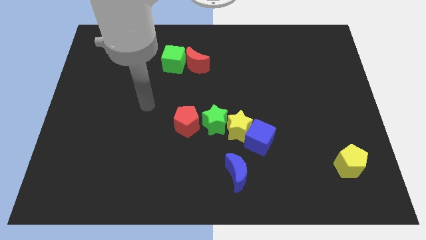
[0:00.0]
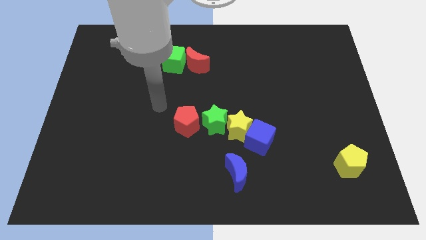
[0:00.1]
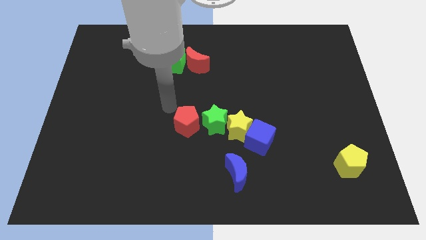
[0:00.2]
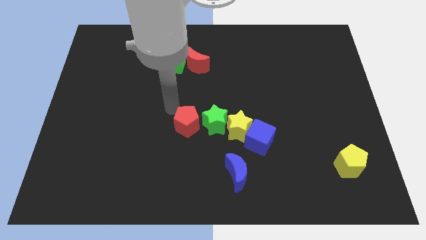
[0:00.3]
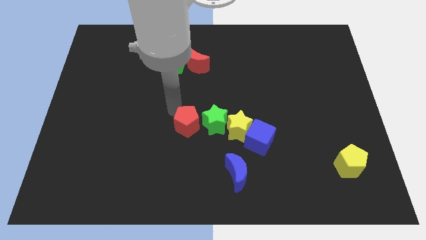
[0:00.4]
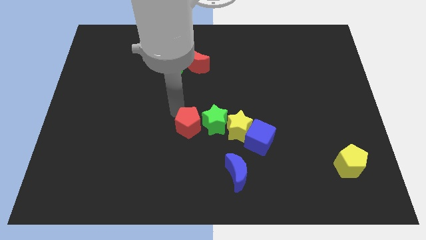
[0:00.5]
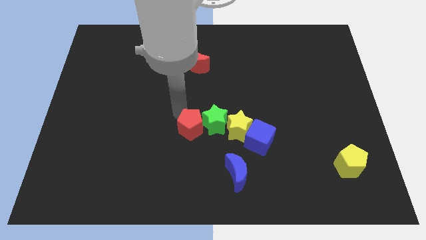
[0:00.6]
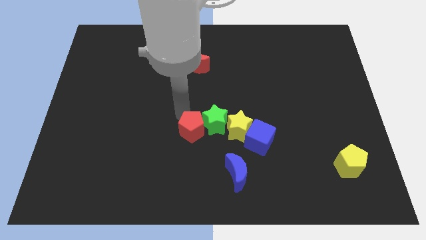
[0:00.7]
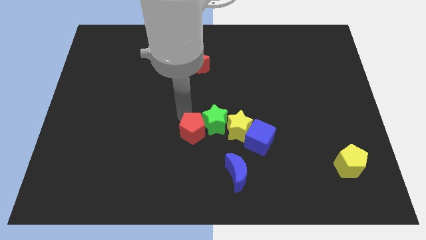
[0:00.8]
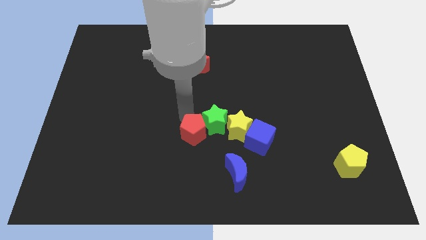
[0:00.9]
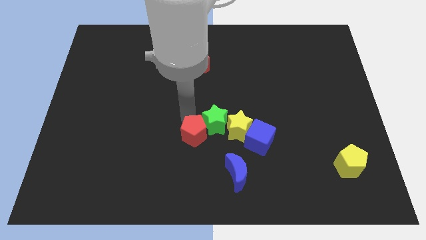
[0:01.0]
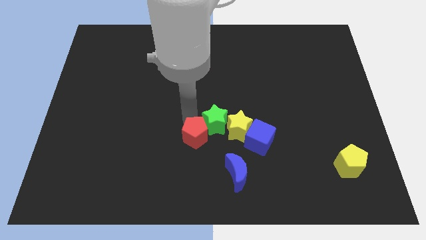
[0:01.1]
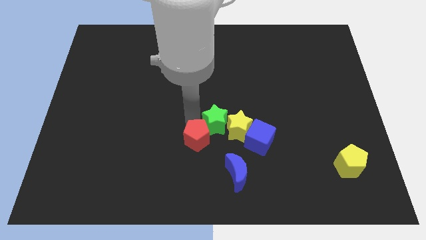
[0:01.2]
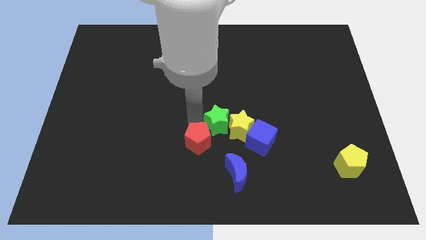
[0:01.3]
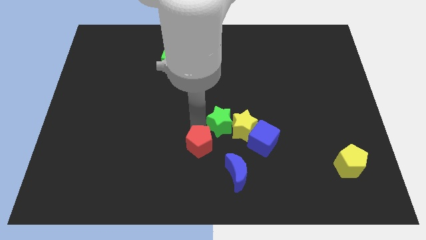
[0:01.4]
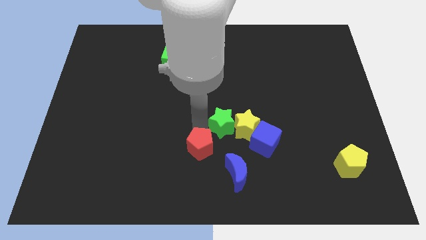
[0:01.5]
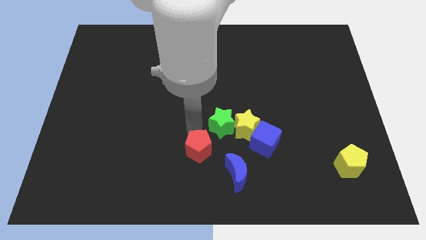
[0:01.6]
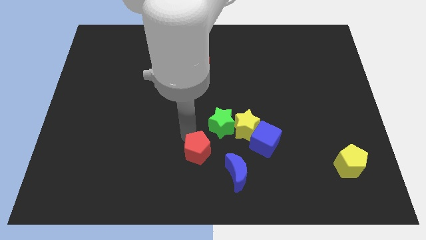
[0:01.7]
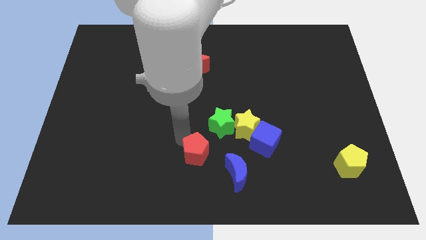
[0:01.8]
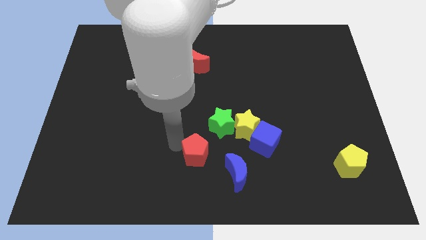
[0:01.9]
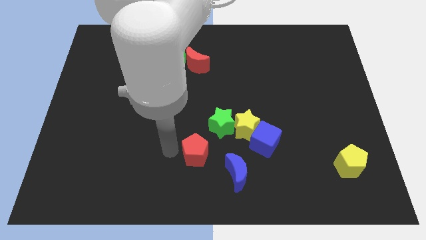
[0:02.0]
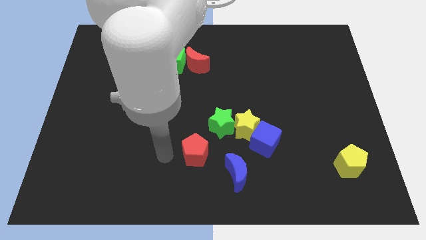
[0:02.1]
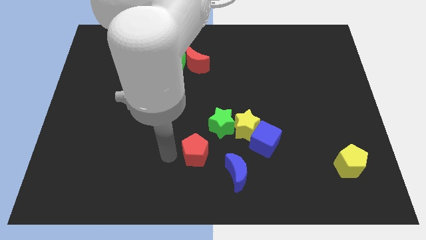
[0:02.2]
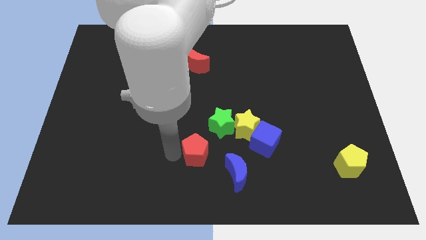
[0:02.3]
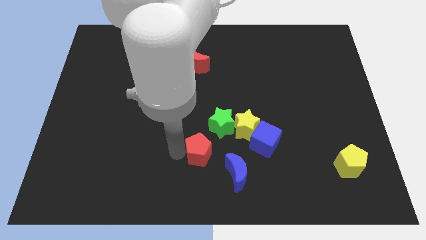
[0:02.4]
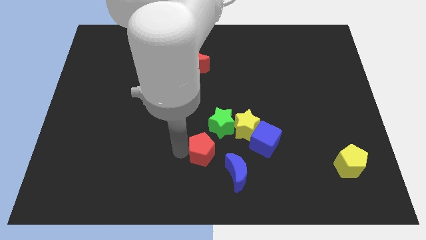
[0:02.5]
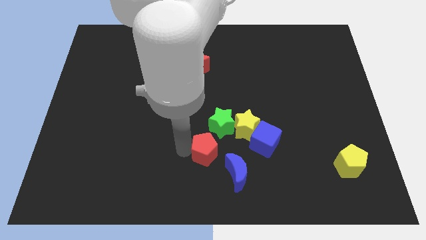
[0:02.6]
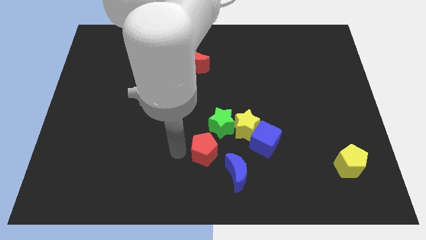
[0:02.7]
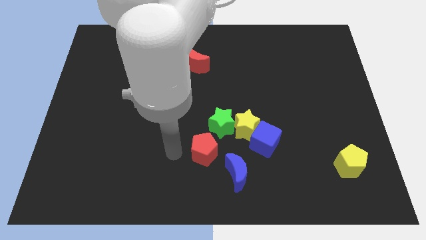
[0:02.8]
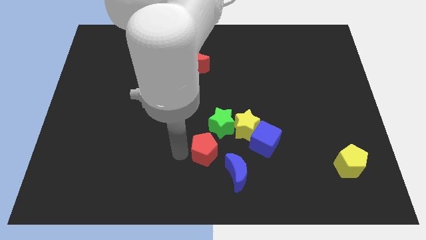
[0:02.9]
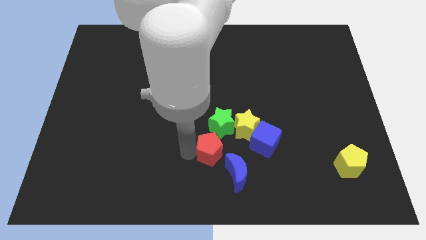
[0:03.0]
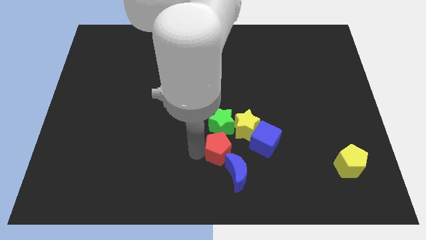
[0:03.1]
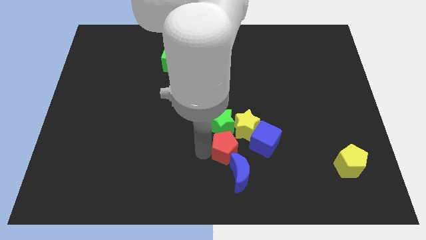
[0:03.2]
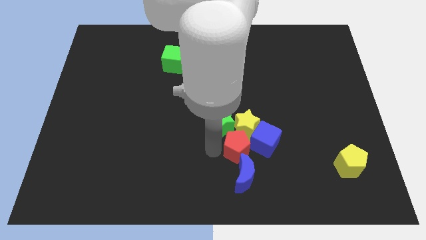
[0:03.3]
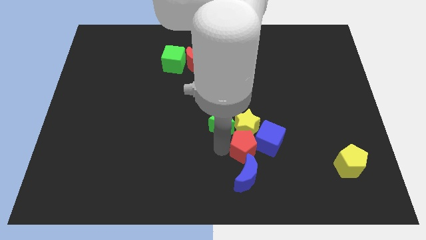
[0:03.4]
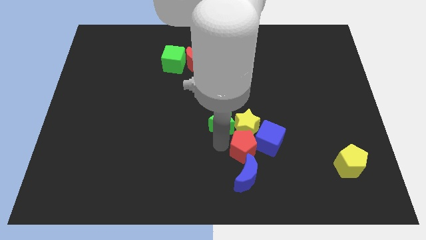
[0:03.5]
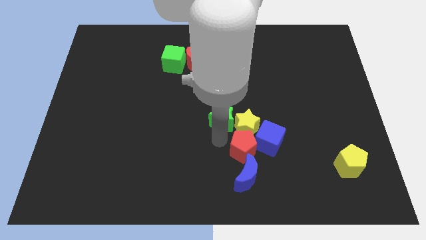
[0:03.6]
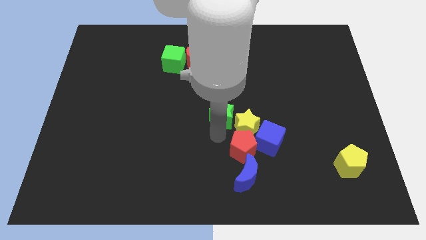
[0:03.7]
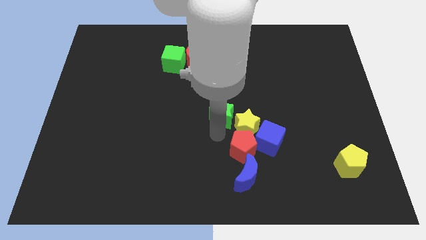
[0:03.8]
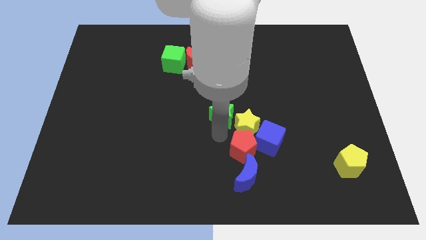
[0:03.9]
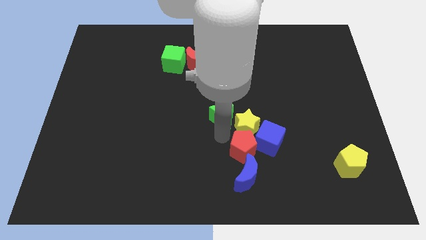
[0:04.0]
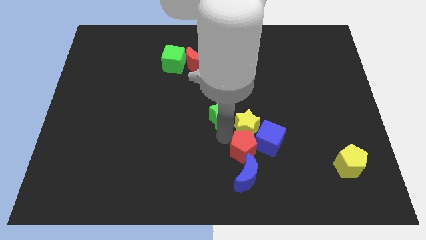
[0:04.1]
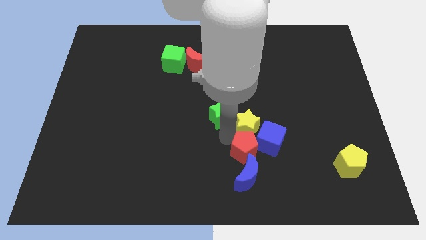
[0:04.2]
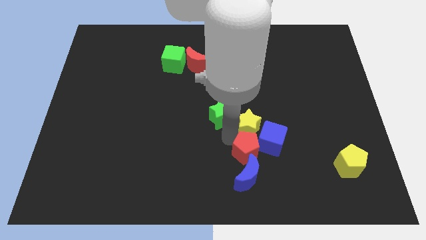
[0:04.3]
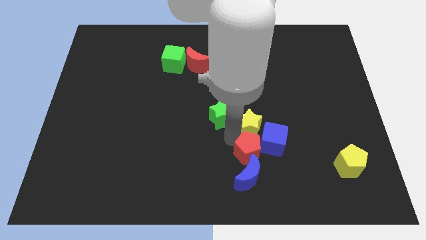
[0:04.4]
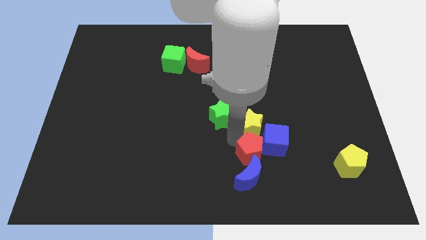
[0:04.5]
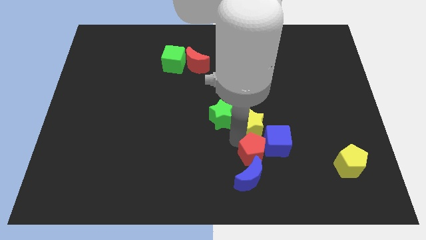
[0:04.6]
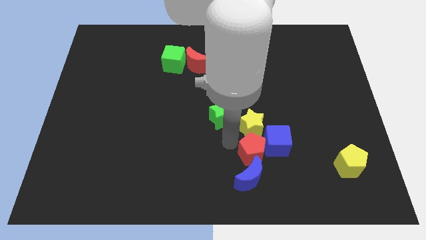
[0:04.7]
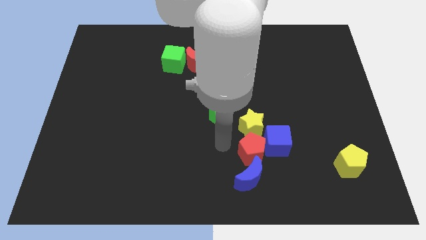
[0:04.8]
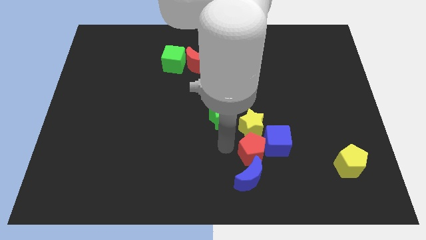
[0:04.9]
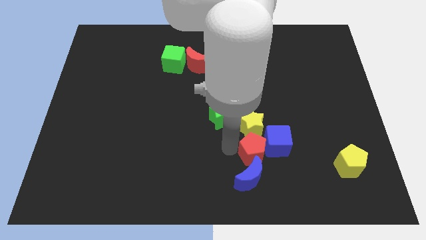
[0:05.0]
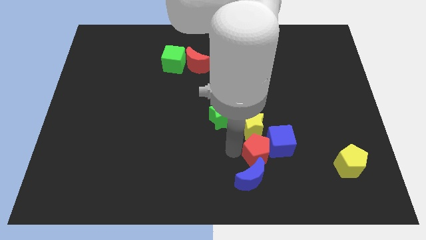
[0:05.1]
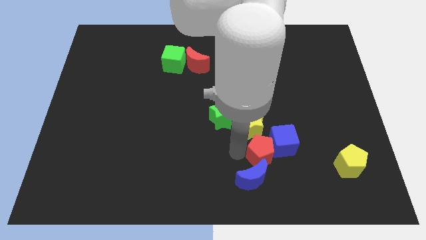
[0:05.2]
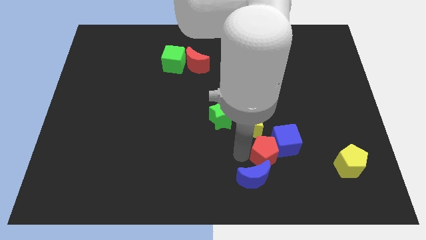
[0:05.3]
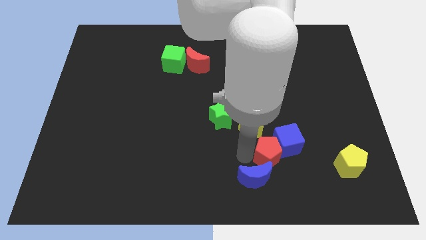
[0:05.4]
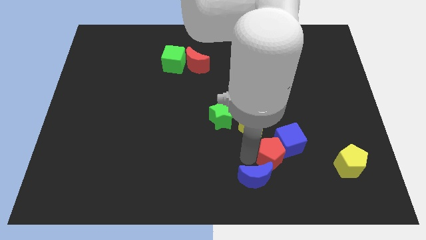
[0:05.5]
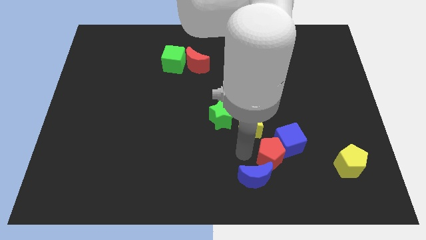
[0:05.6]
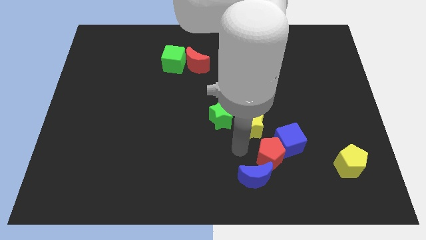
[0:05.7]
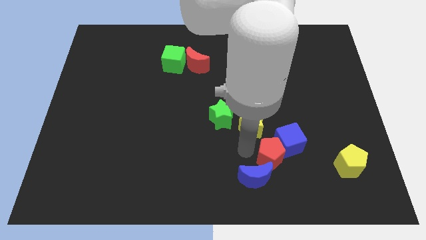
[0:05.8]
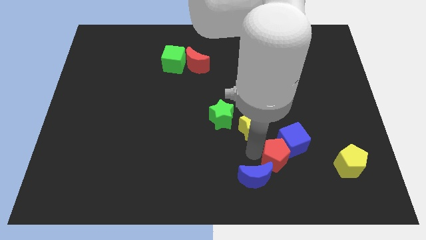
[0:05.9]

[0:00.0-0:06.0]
push the red pentagon just left of the yellow pentagon

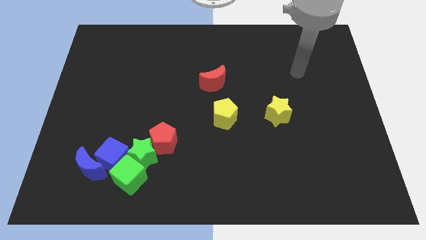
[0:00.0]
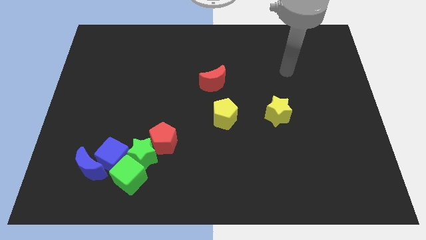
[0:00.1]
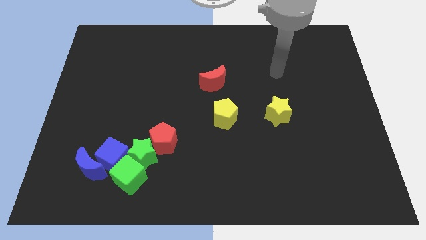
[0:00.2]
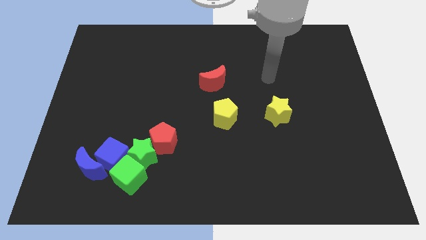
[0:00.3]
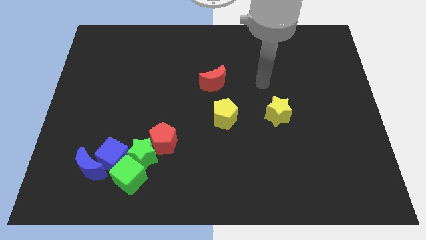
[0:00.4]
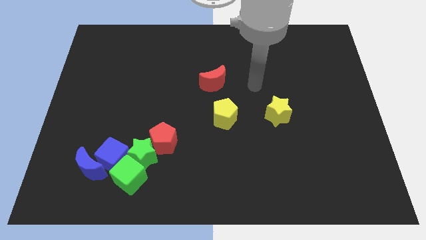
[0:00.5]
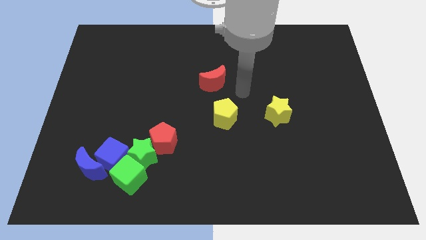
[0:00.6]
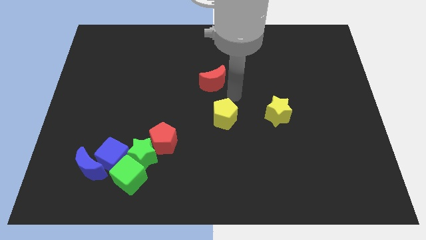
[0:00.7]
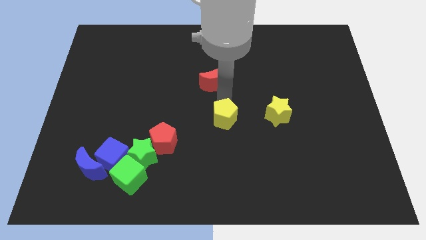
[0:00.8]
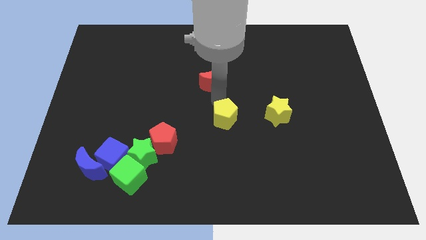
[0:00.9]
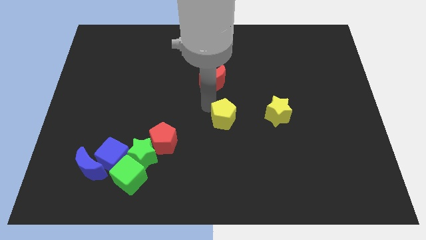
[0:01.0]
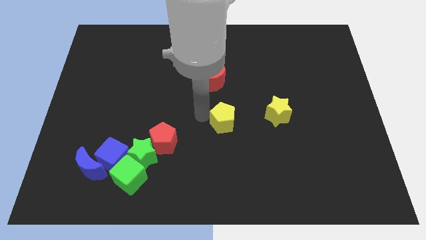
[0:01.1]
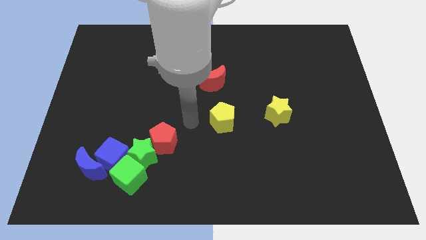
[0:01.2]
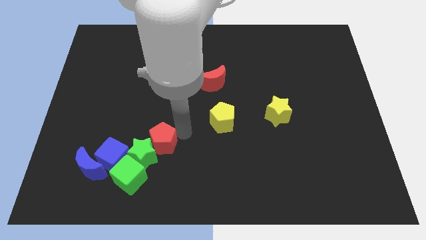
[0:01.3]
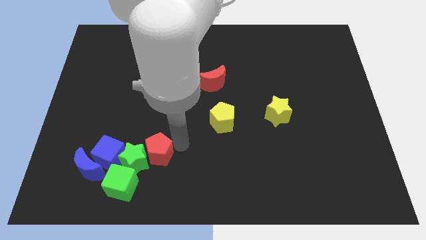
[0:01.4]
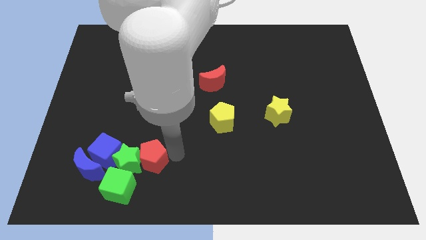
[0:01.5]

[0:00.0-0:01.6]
put the green star diagonally up and to the right of the blue moon

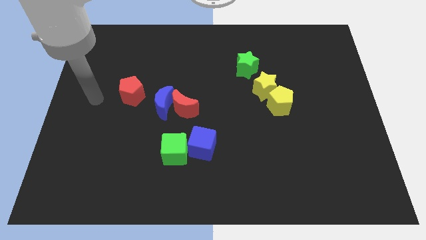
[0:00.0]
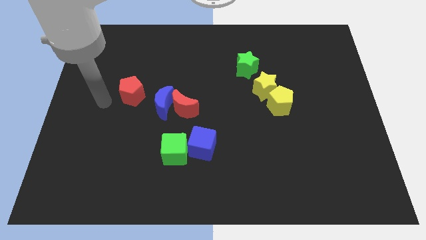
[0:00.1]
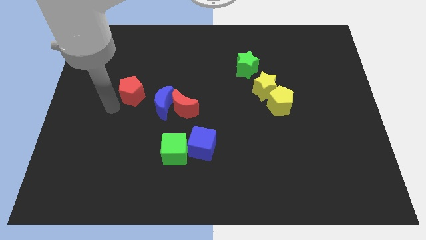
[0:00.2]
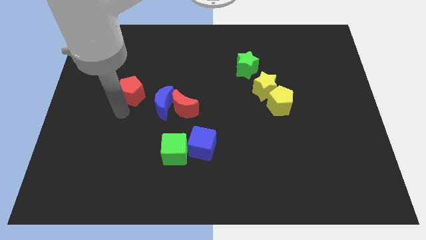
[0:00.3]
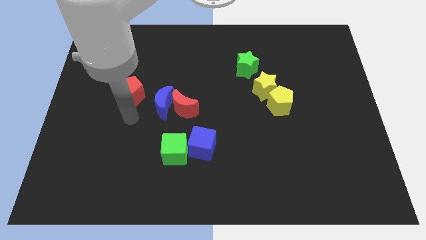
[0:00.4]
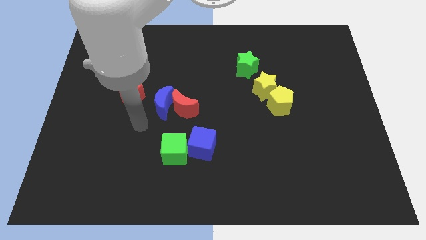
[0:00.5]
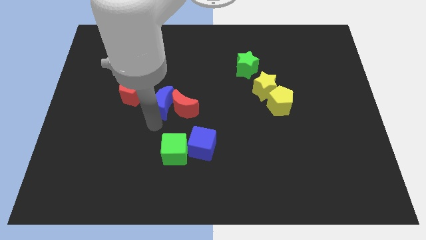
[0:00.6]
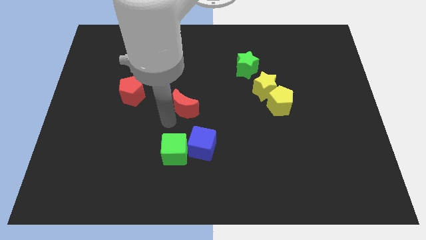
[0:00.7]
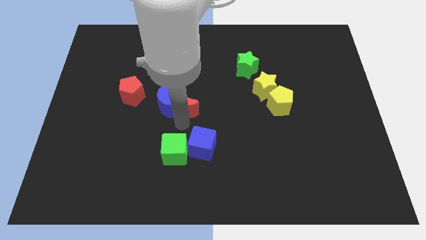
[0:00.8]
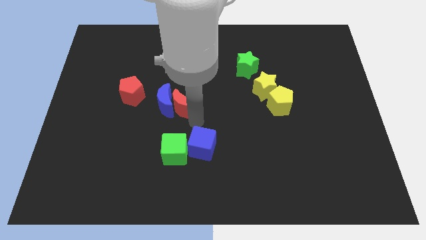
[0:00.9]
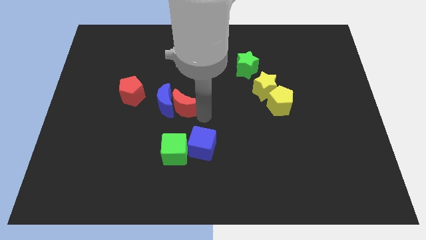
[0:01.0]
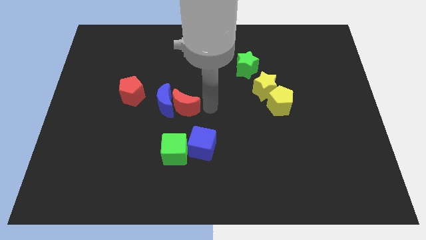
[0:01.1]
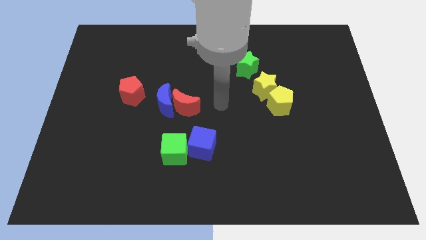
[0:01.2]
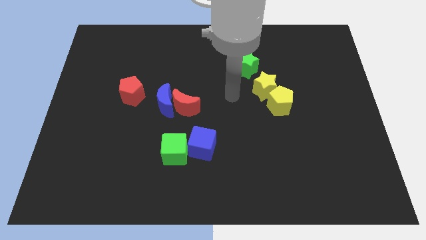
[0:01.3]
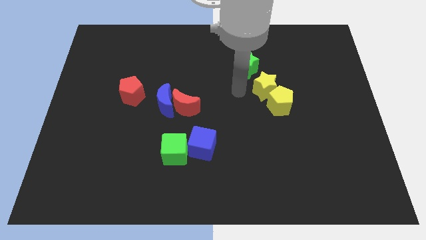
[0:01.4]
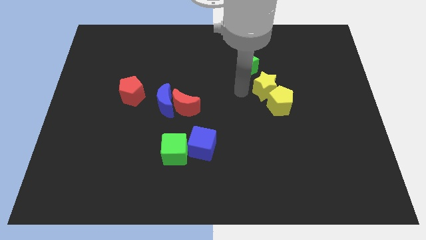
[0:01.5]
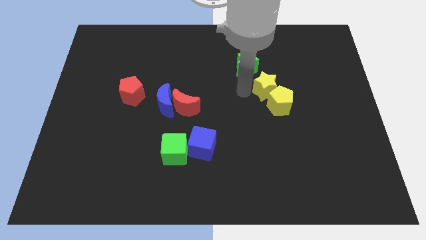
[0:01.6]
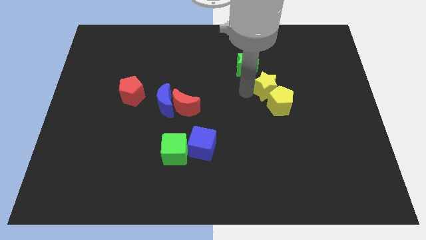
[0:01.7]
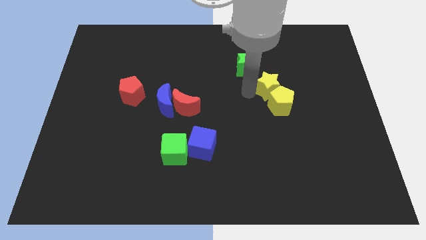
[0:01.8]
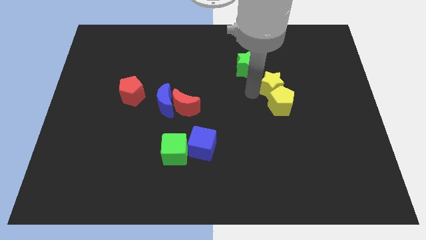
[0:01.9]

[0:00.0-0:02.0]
move the yellow star to the top right of the yellow pentagon
